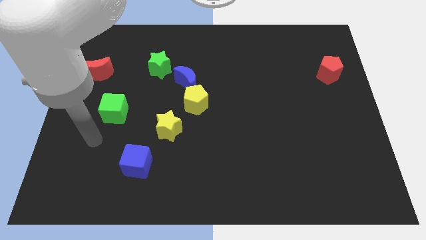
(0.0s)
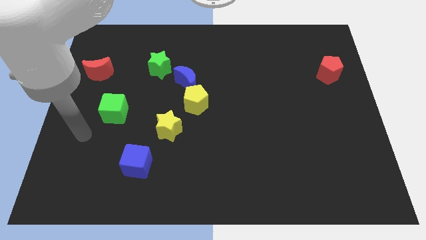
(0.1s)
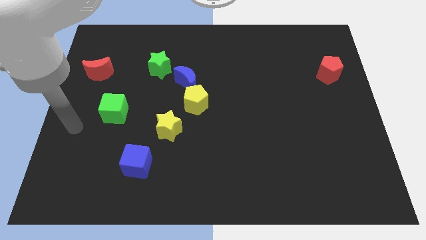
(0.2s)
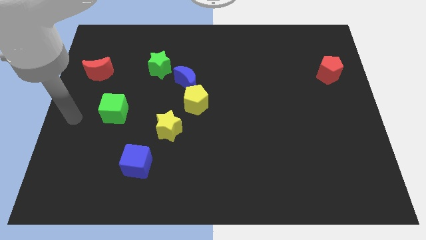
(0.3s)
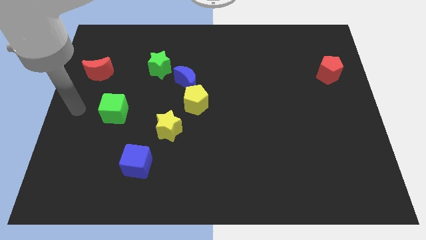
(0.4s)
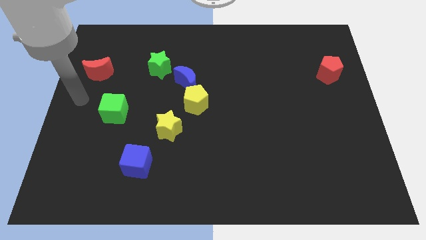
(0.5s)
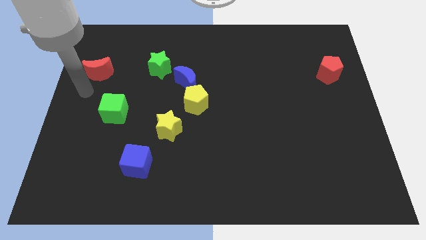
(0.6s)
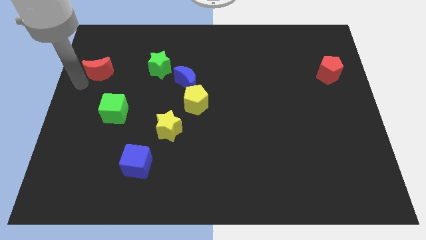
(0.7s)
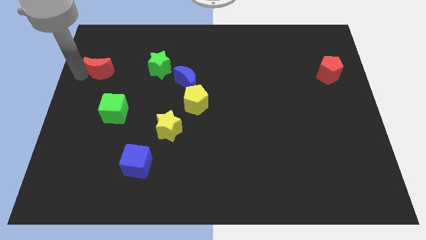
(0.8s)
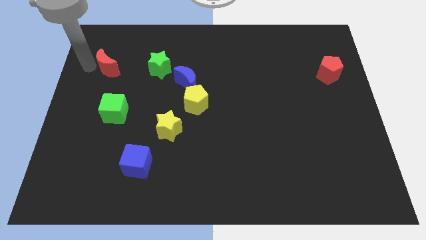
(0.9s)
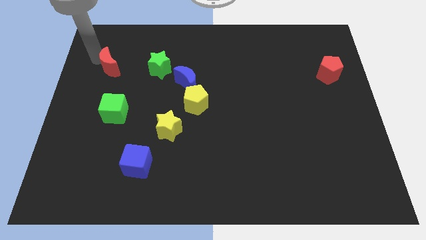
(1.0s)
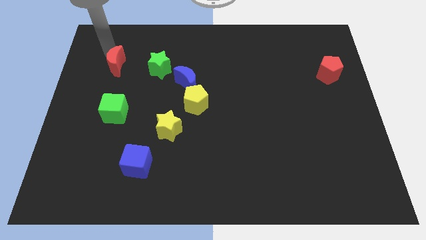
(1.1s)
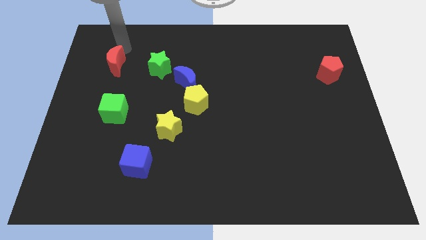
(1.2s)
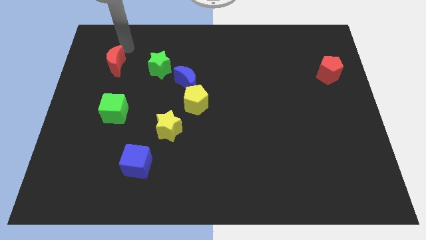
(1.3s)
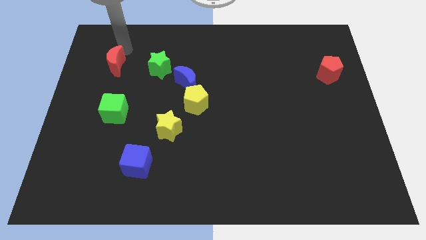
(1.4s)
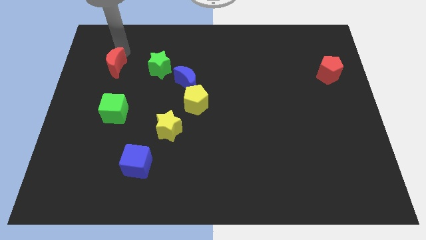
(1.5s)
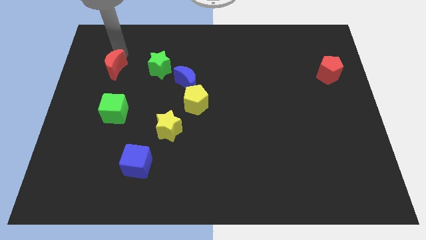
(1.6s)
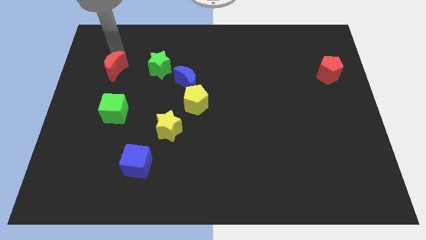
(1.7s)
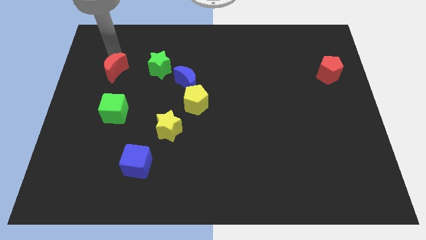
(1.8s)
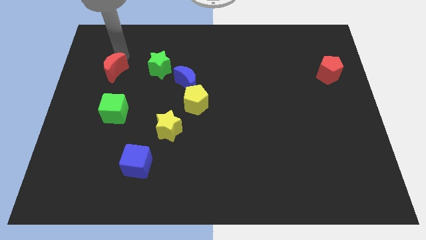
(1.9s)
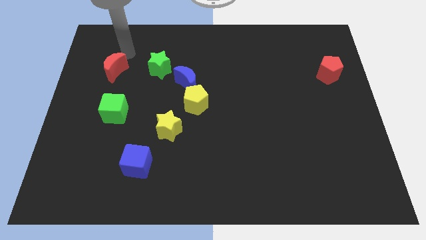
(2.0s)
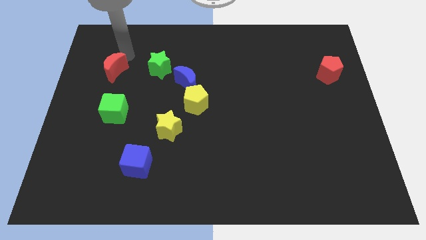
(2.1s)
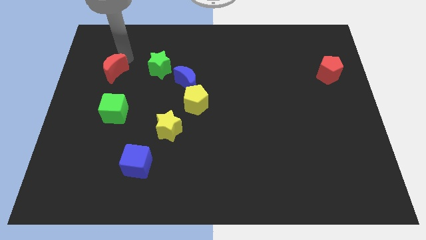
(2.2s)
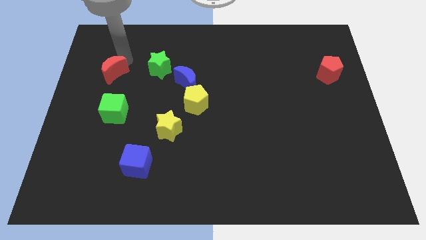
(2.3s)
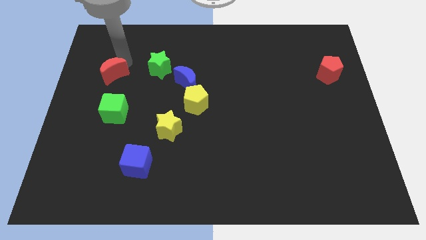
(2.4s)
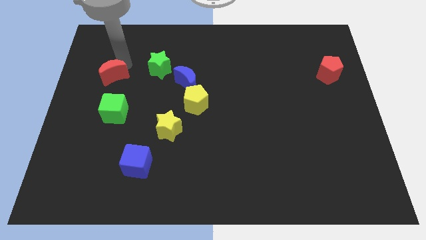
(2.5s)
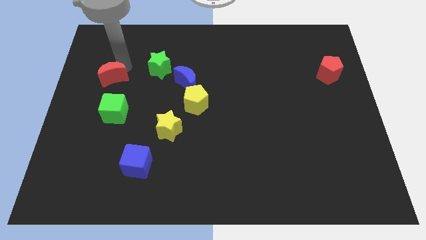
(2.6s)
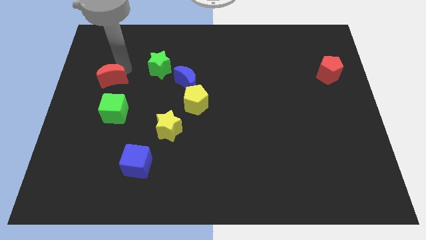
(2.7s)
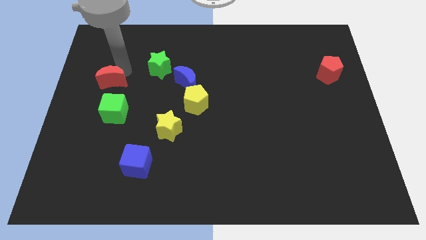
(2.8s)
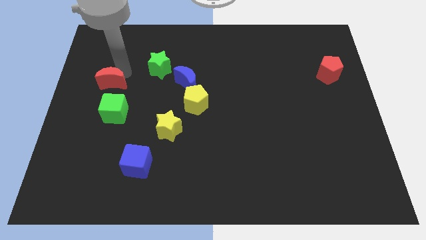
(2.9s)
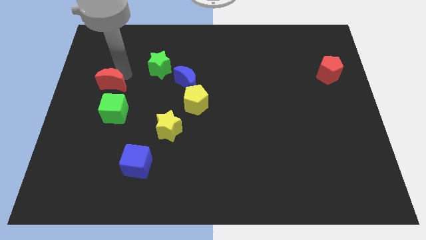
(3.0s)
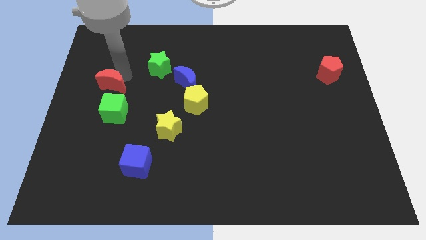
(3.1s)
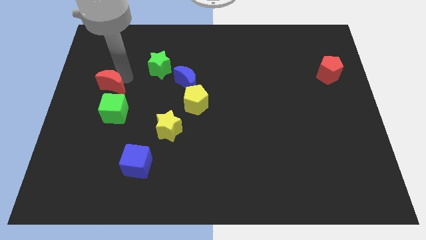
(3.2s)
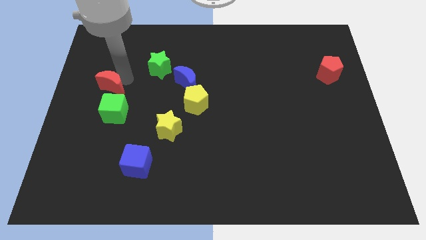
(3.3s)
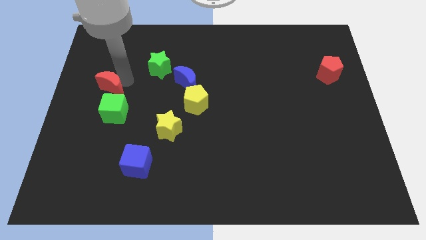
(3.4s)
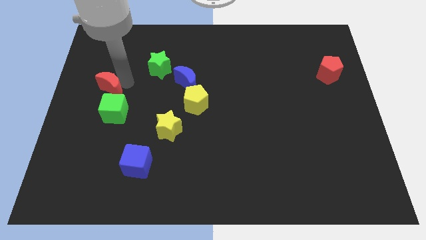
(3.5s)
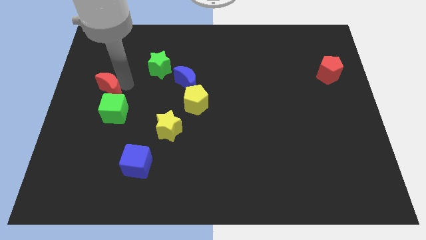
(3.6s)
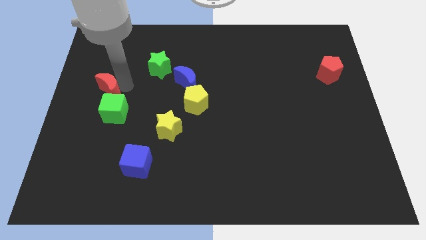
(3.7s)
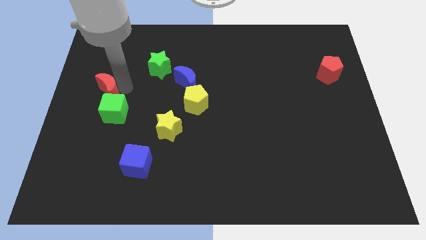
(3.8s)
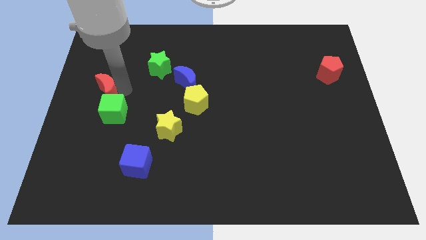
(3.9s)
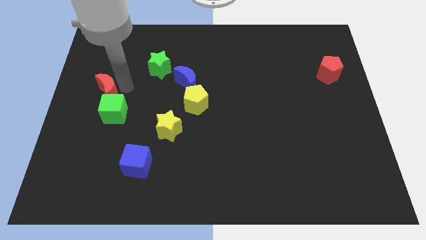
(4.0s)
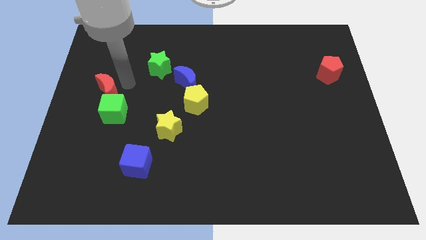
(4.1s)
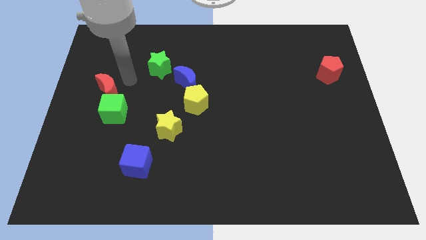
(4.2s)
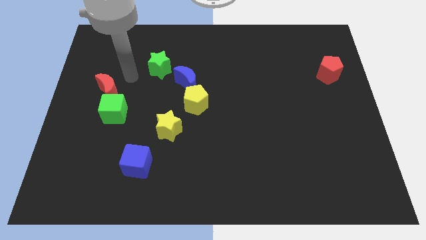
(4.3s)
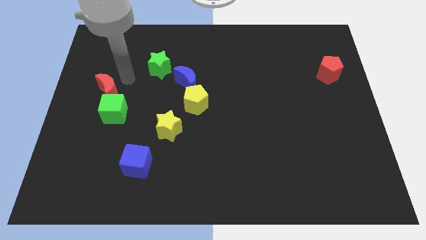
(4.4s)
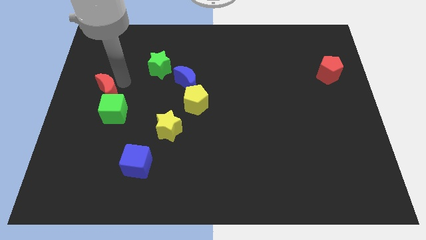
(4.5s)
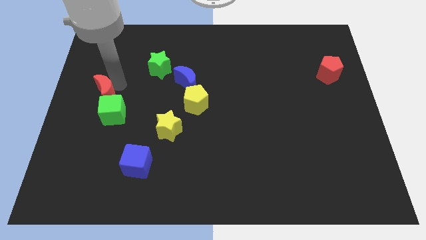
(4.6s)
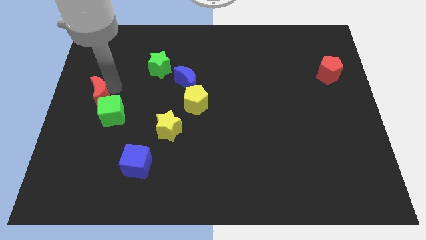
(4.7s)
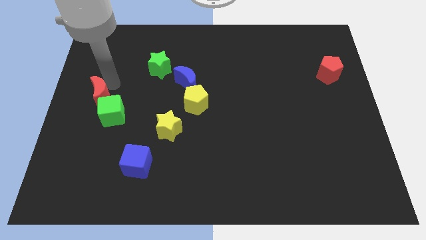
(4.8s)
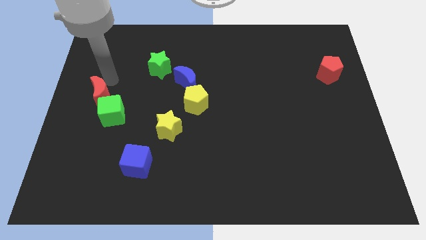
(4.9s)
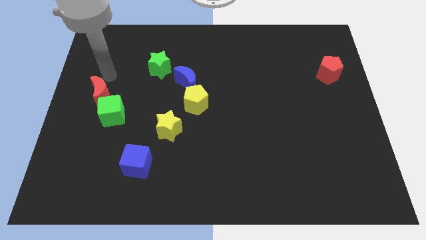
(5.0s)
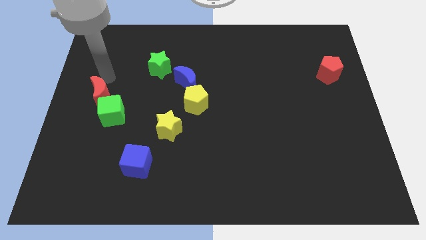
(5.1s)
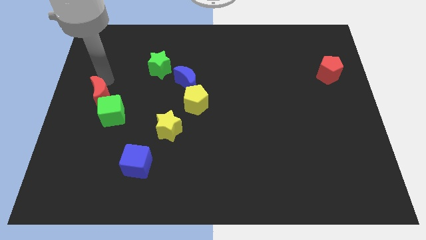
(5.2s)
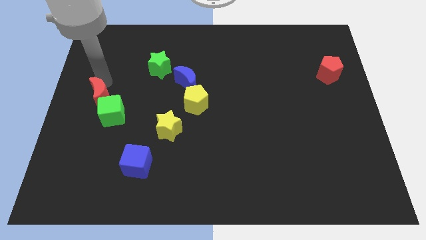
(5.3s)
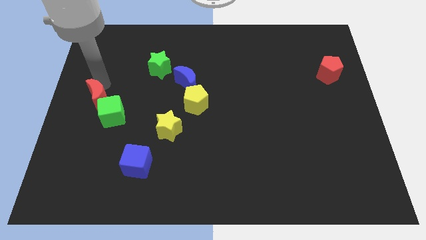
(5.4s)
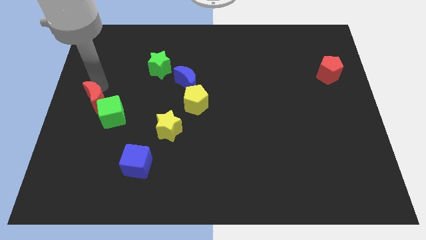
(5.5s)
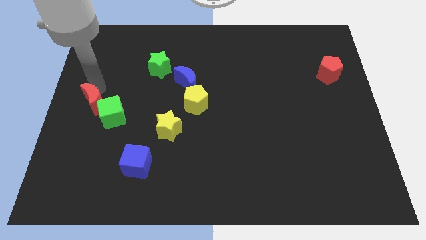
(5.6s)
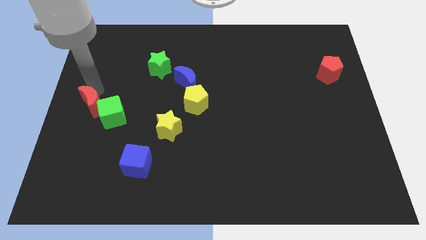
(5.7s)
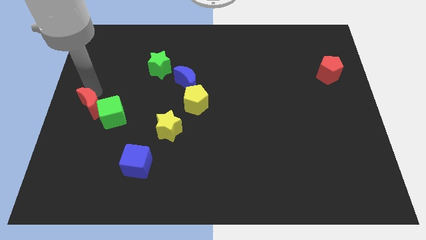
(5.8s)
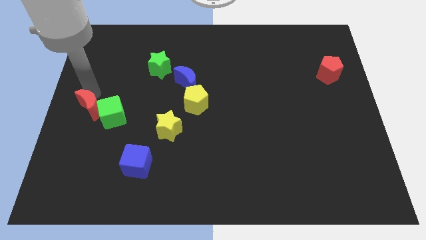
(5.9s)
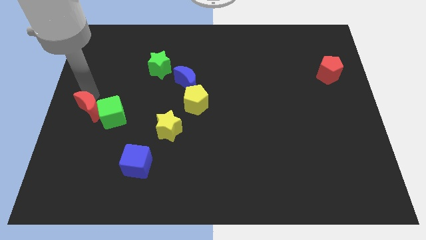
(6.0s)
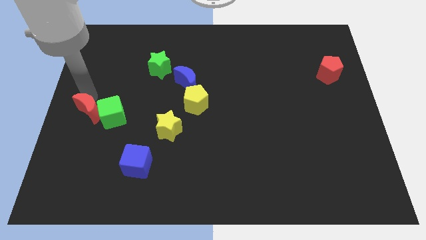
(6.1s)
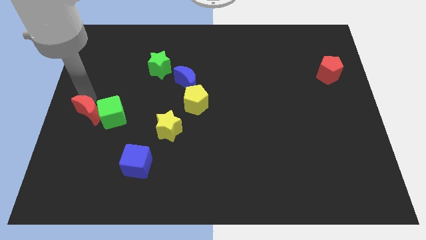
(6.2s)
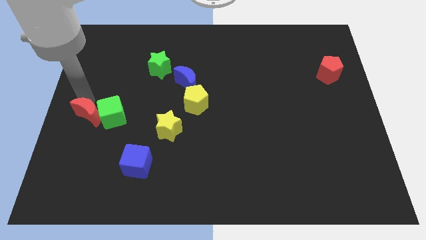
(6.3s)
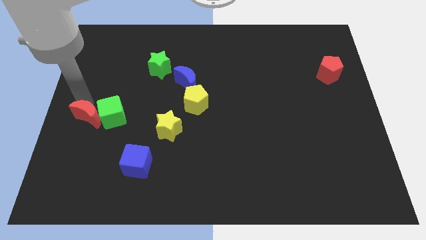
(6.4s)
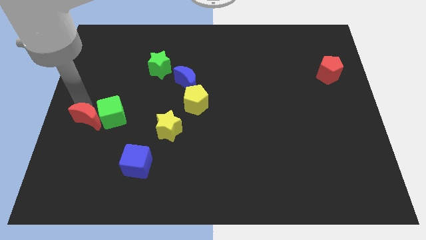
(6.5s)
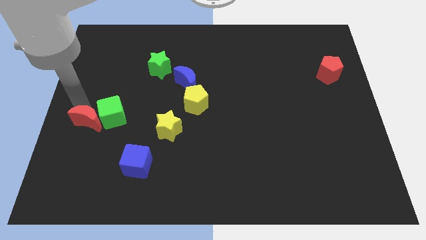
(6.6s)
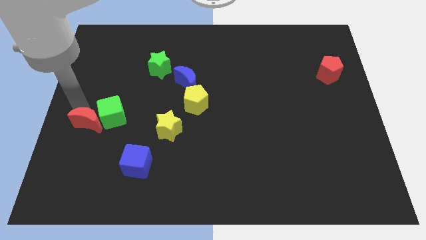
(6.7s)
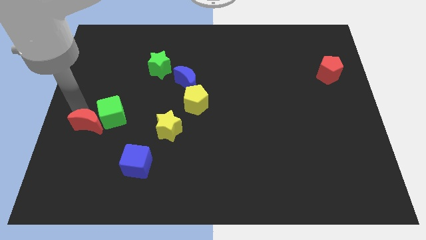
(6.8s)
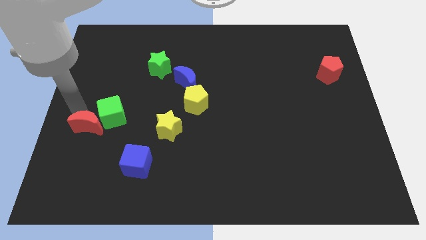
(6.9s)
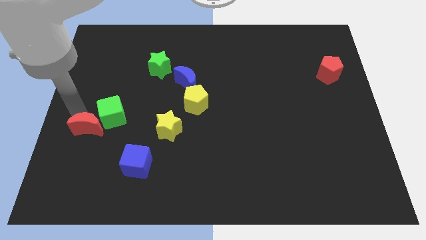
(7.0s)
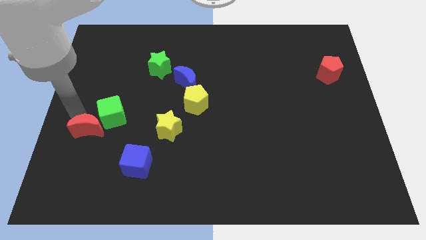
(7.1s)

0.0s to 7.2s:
slide the red moon below the green cube

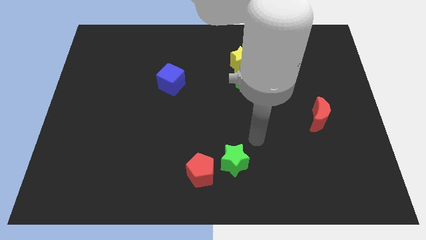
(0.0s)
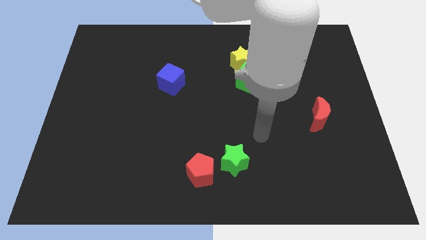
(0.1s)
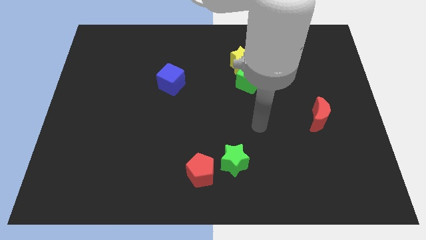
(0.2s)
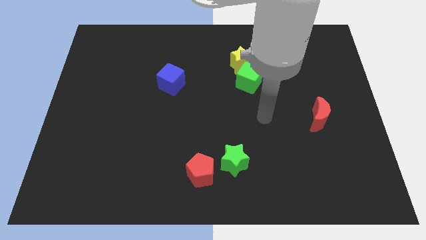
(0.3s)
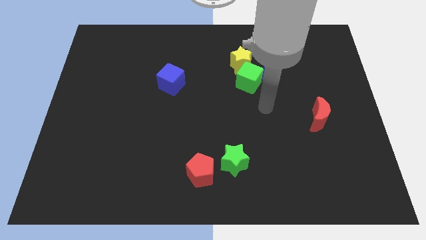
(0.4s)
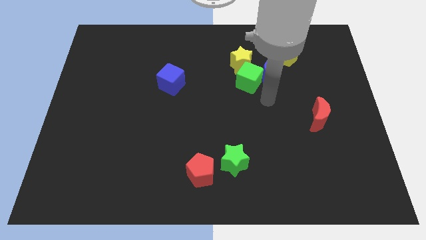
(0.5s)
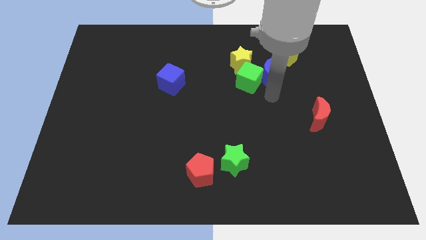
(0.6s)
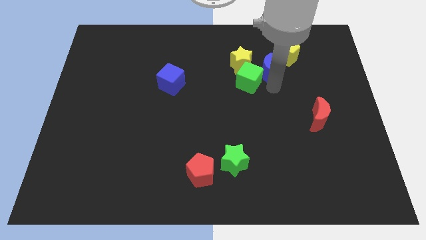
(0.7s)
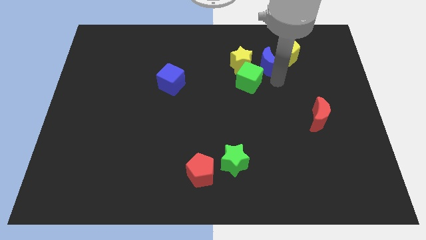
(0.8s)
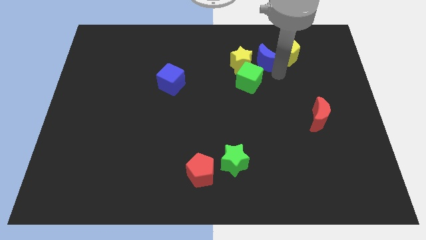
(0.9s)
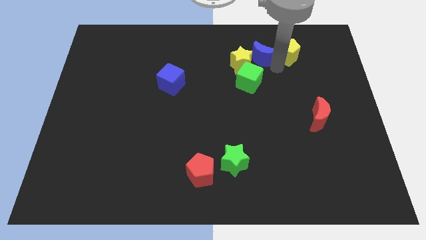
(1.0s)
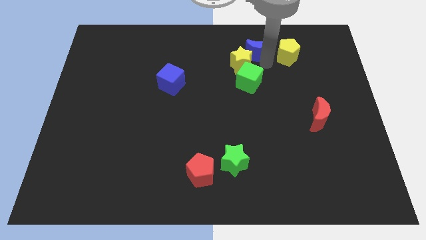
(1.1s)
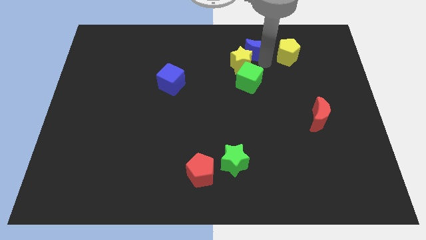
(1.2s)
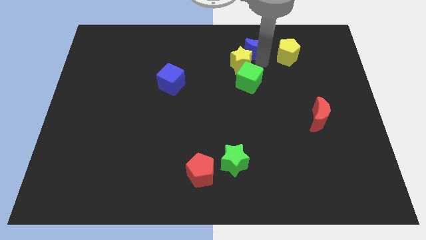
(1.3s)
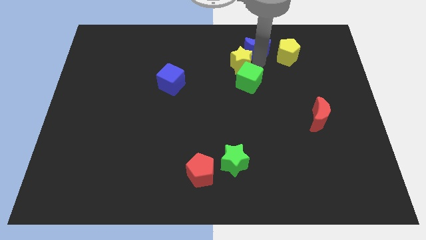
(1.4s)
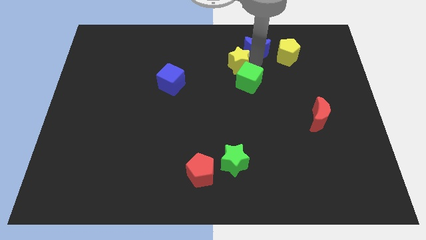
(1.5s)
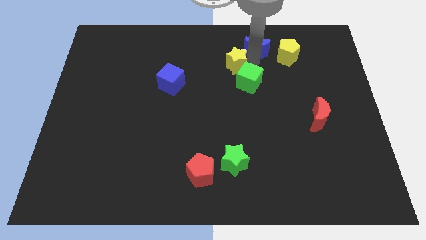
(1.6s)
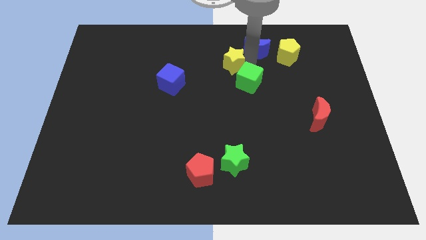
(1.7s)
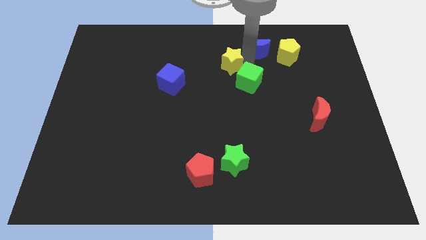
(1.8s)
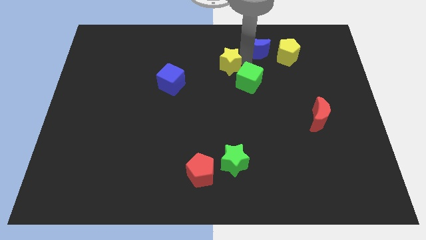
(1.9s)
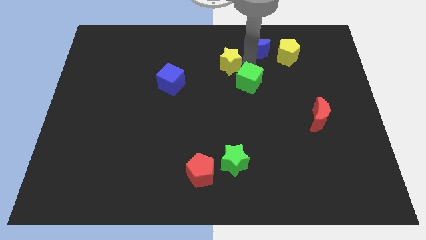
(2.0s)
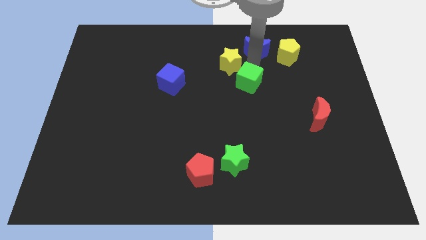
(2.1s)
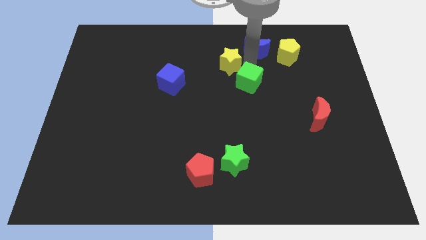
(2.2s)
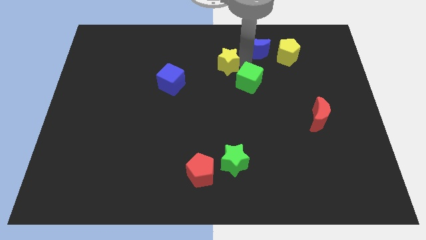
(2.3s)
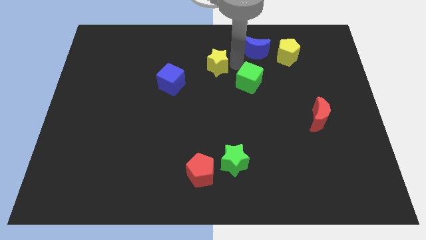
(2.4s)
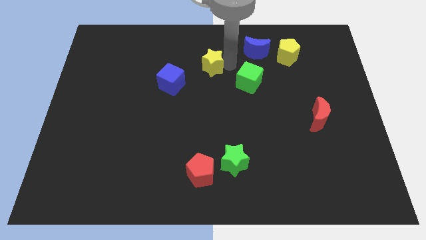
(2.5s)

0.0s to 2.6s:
move the yellow star to the top right side of the blue cube
